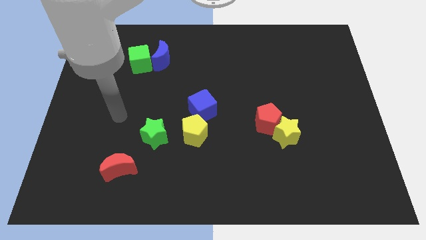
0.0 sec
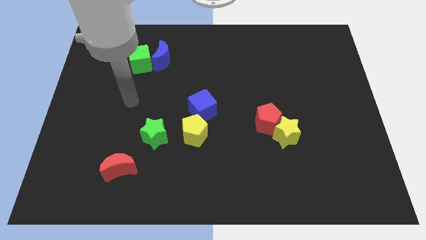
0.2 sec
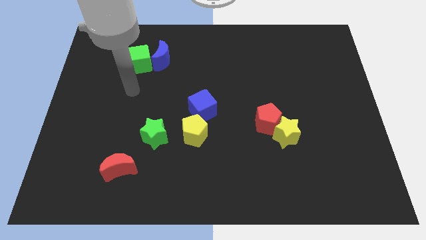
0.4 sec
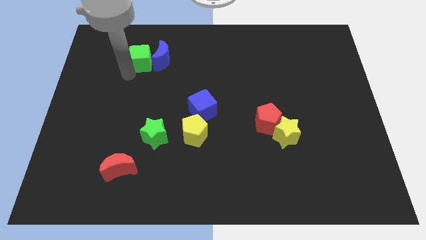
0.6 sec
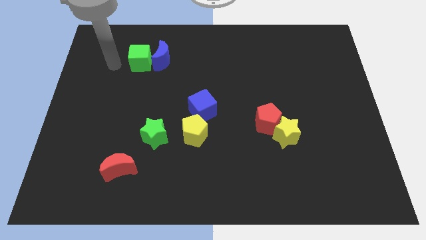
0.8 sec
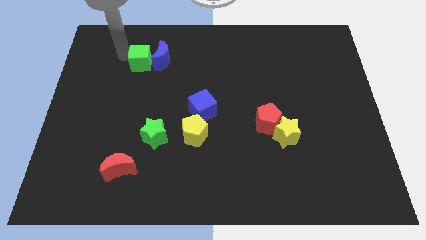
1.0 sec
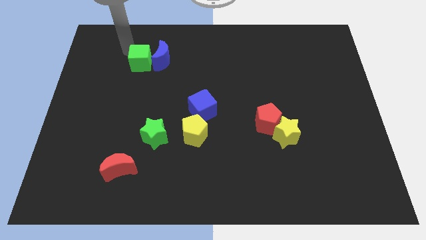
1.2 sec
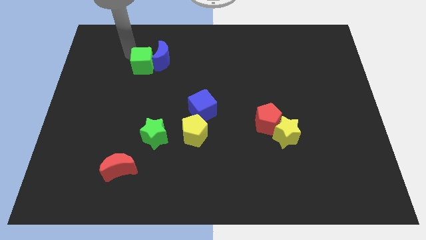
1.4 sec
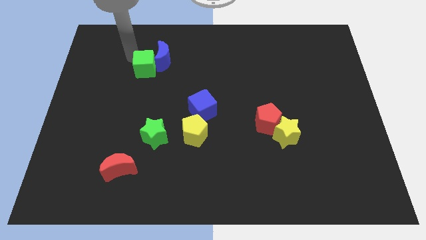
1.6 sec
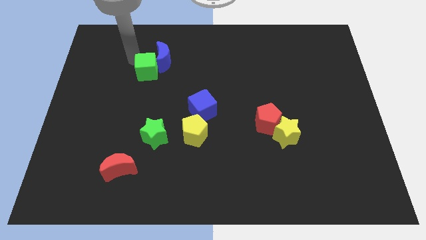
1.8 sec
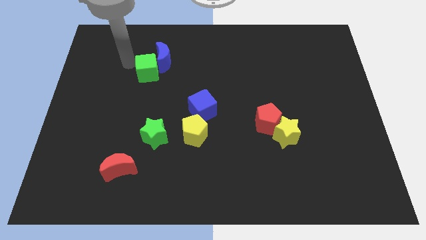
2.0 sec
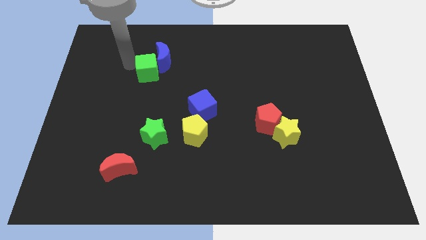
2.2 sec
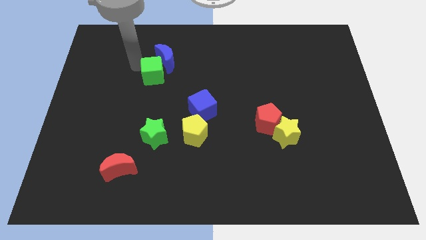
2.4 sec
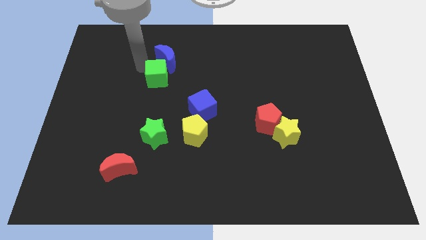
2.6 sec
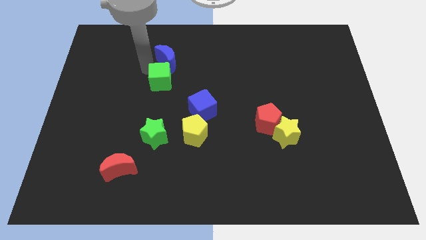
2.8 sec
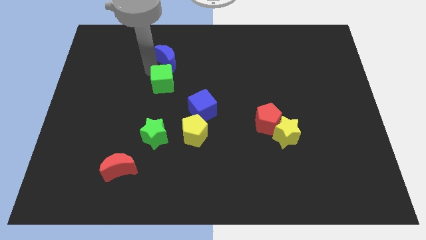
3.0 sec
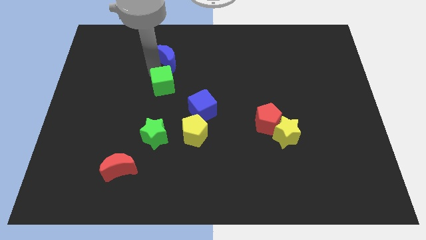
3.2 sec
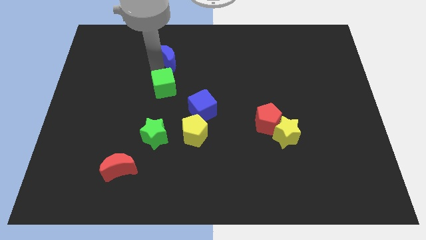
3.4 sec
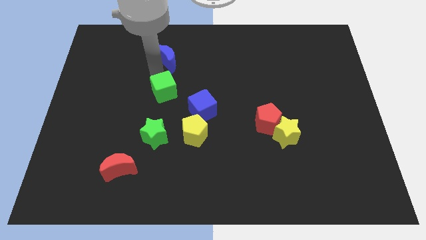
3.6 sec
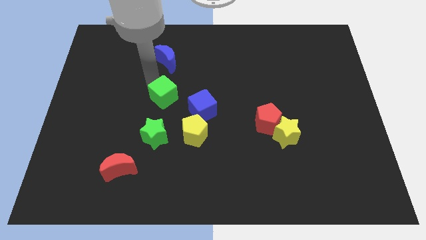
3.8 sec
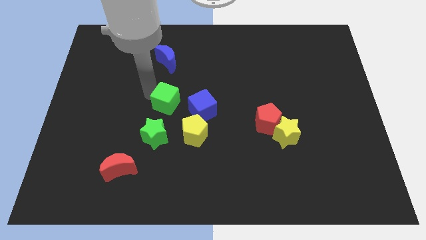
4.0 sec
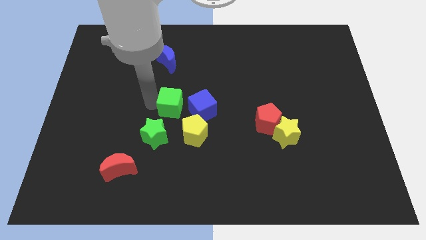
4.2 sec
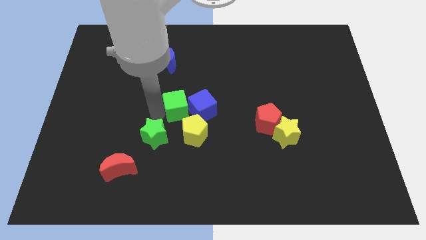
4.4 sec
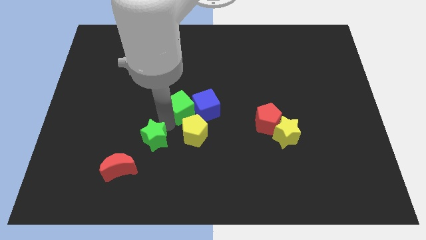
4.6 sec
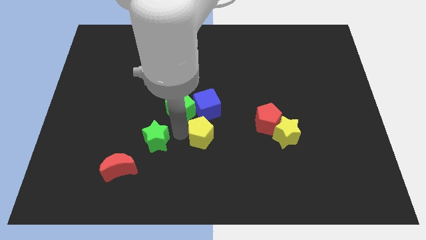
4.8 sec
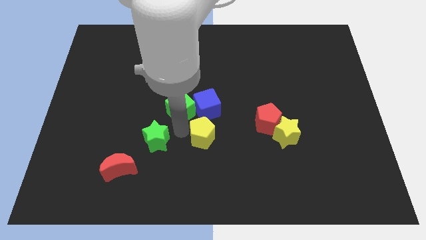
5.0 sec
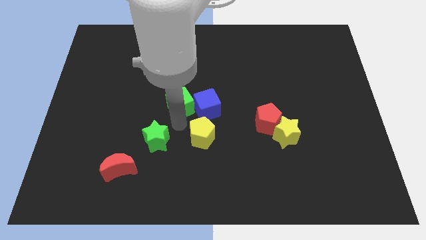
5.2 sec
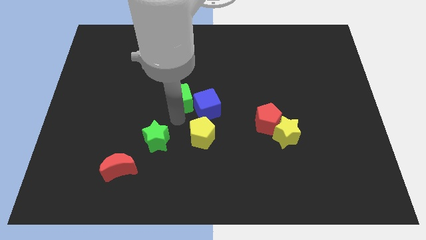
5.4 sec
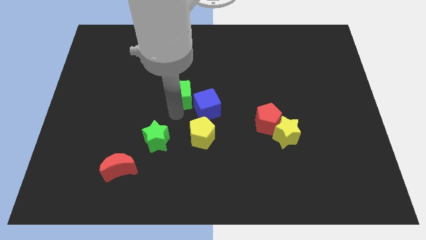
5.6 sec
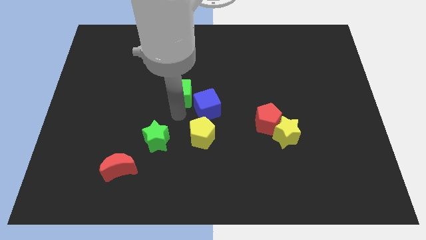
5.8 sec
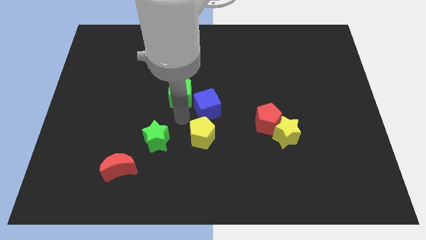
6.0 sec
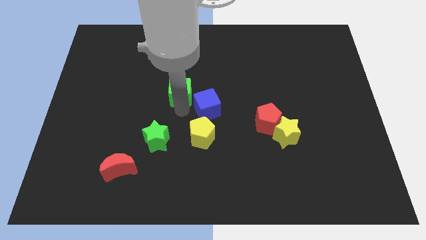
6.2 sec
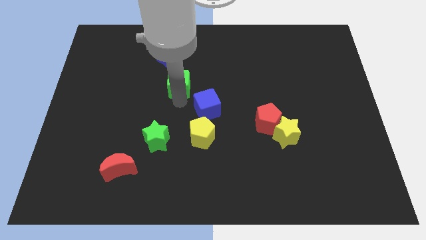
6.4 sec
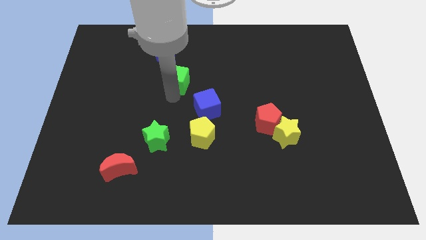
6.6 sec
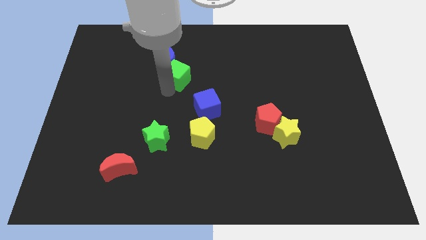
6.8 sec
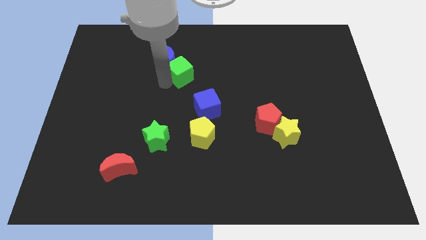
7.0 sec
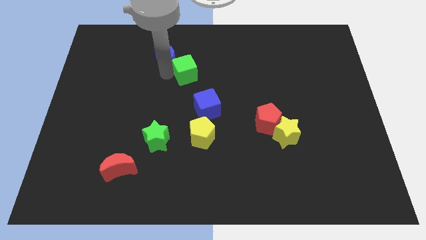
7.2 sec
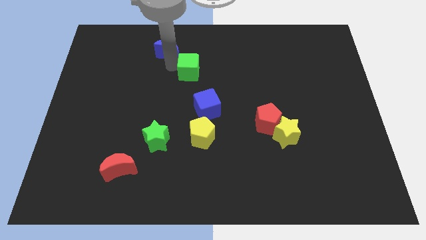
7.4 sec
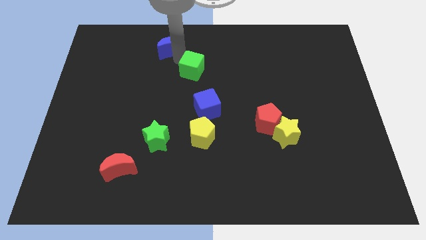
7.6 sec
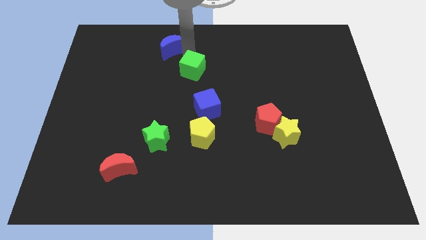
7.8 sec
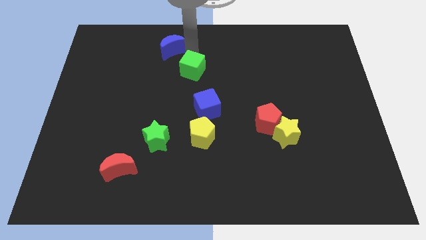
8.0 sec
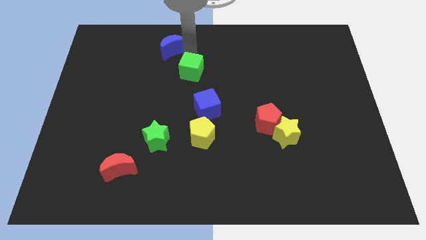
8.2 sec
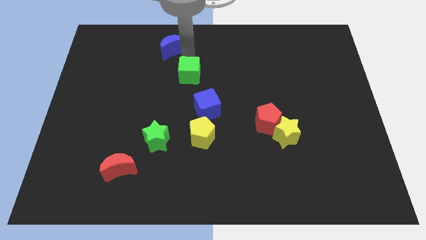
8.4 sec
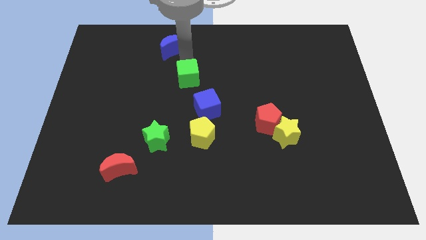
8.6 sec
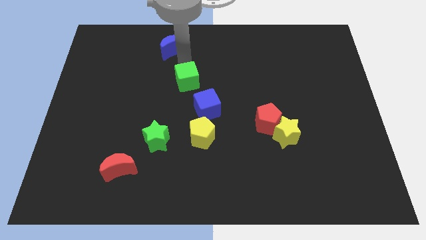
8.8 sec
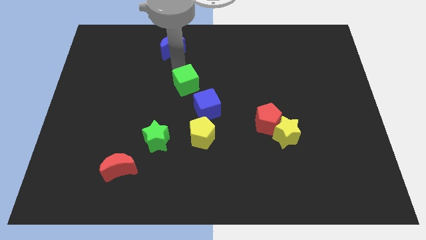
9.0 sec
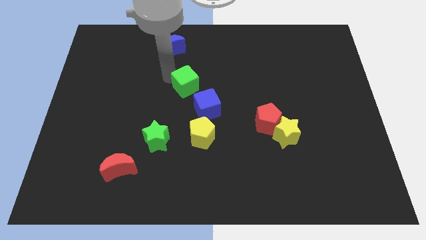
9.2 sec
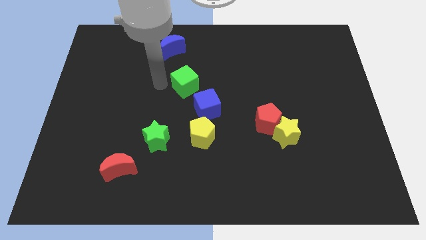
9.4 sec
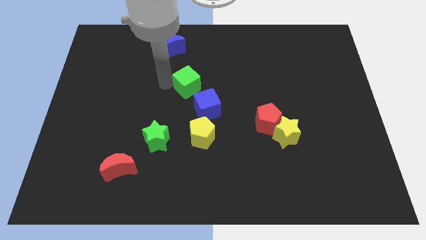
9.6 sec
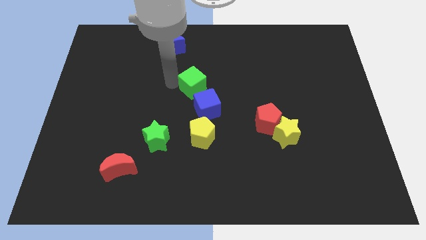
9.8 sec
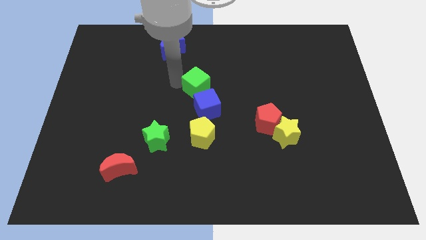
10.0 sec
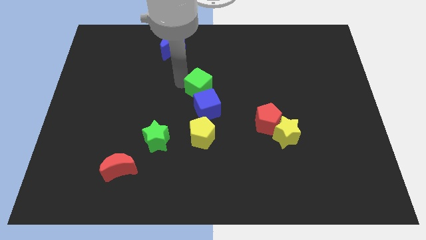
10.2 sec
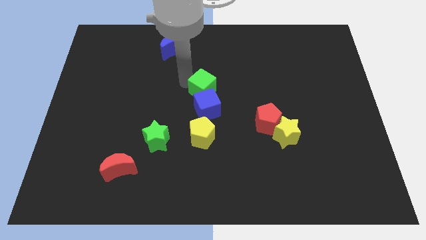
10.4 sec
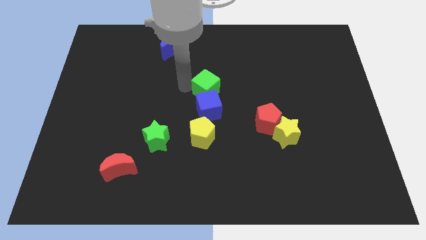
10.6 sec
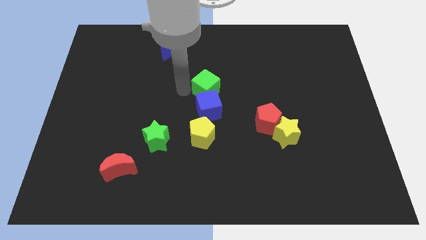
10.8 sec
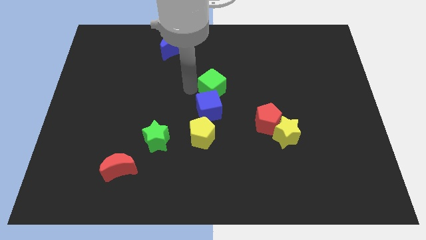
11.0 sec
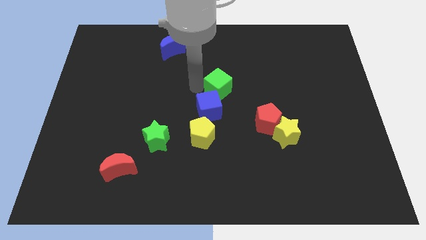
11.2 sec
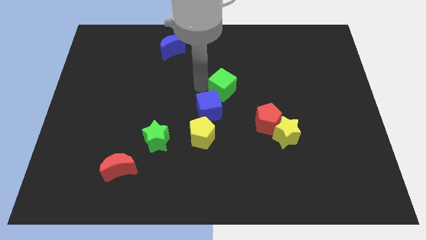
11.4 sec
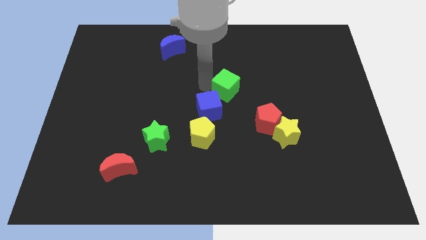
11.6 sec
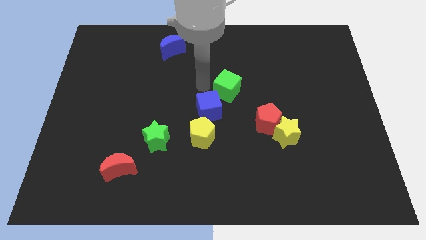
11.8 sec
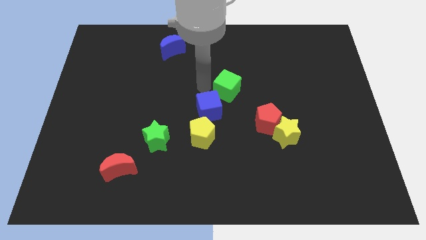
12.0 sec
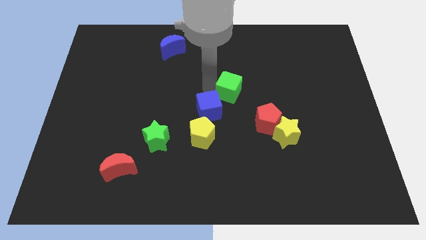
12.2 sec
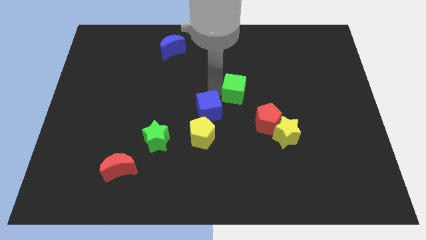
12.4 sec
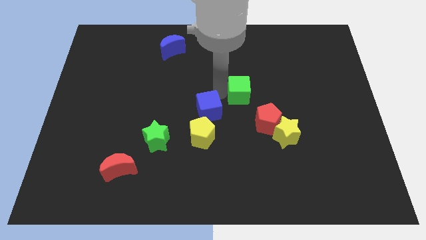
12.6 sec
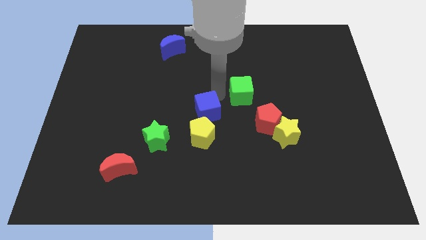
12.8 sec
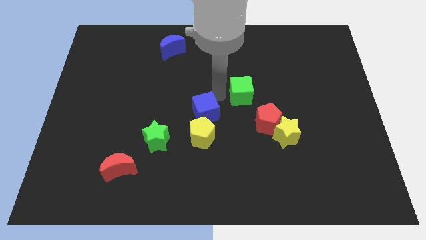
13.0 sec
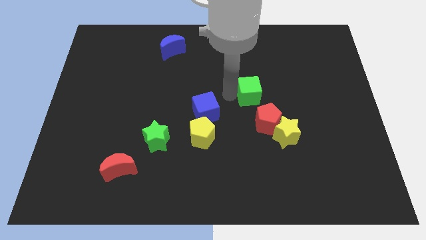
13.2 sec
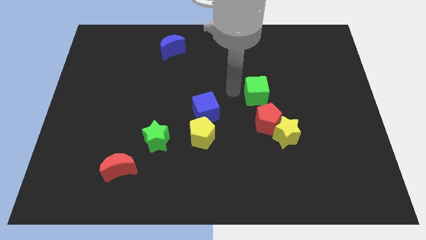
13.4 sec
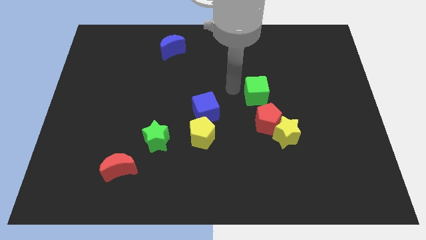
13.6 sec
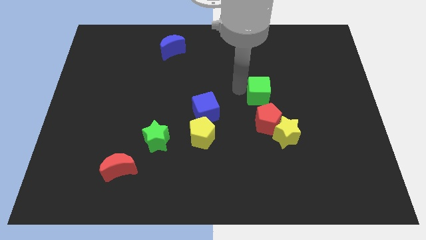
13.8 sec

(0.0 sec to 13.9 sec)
slide the green cube to the top of the yellow star
